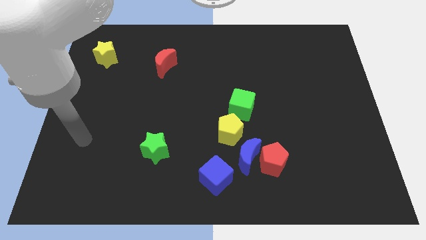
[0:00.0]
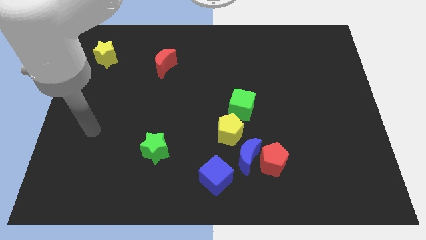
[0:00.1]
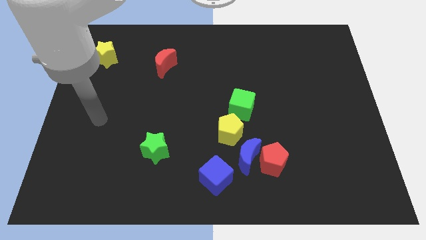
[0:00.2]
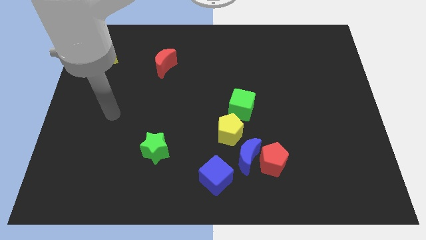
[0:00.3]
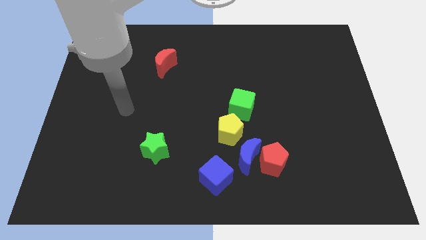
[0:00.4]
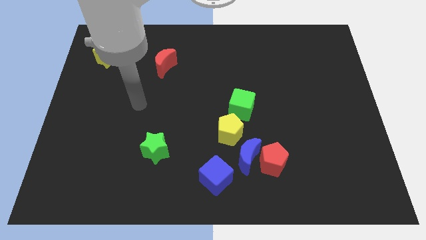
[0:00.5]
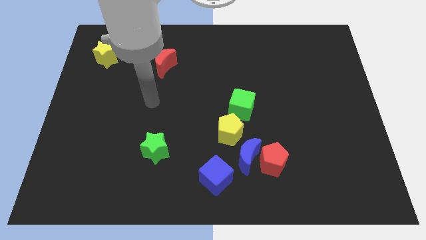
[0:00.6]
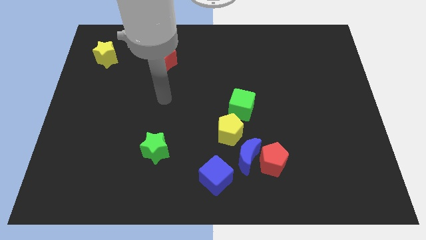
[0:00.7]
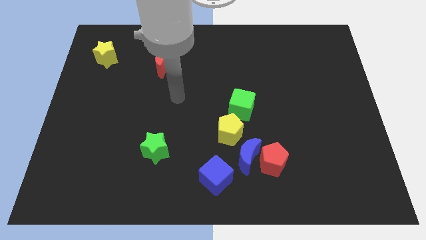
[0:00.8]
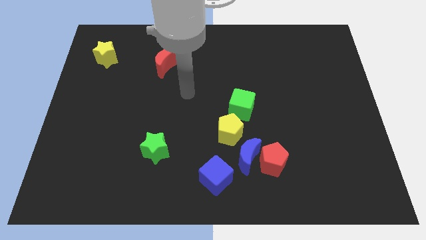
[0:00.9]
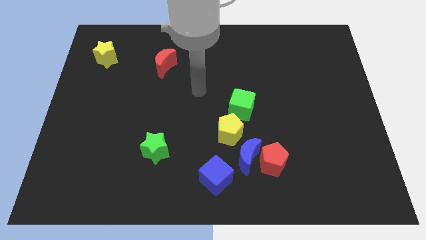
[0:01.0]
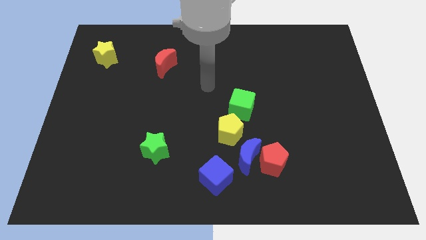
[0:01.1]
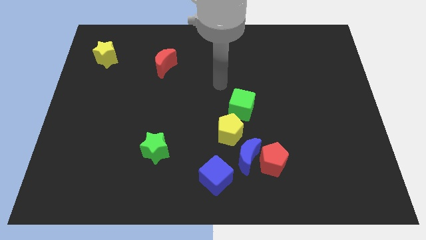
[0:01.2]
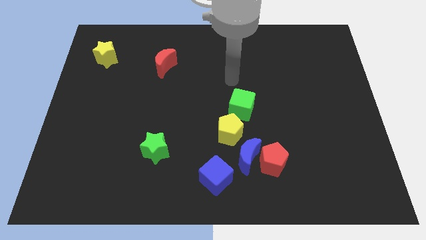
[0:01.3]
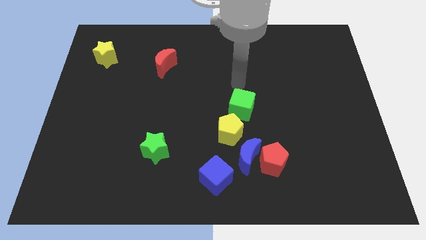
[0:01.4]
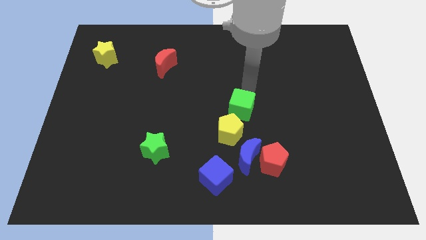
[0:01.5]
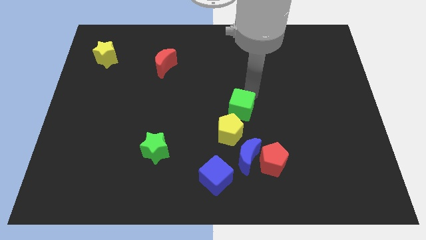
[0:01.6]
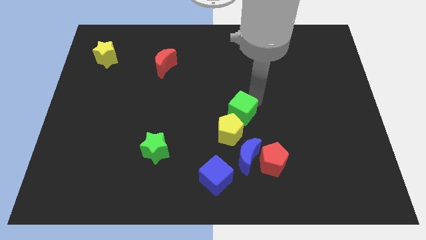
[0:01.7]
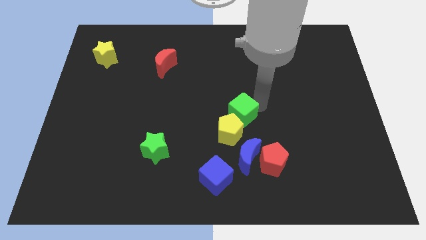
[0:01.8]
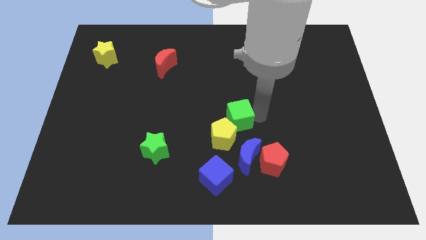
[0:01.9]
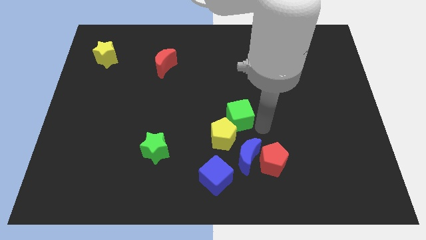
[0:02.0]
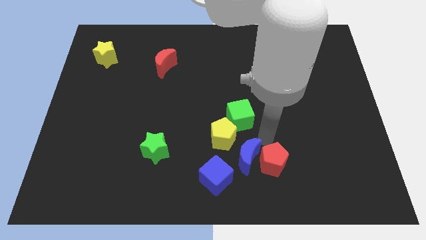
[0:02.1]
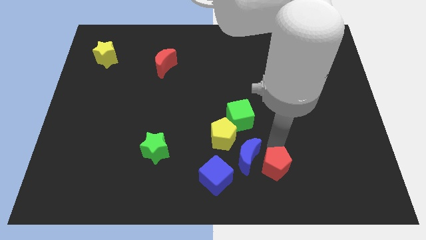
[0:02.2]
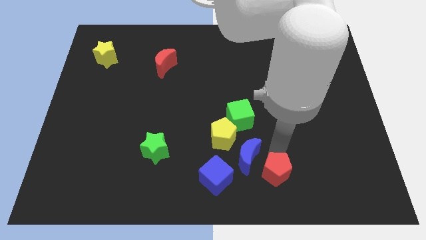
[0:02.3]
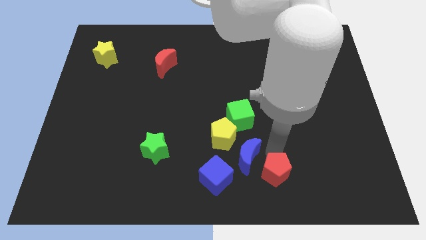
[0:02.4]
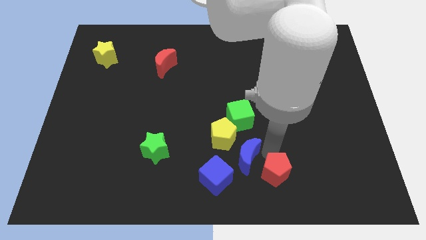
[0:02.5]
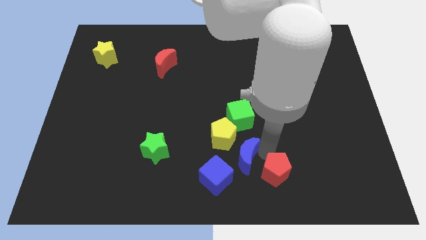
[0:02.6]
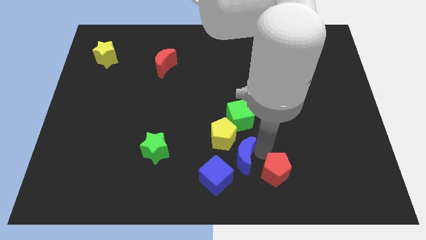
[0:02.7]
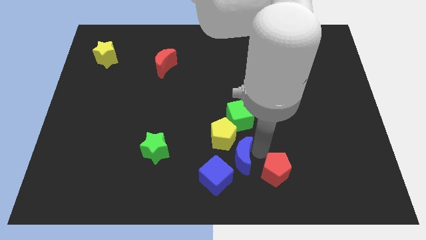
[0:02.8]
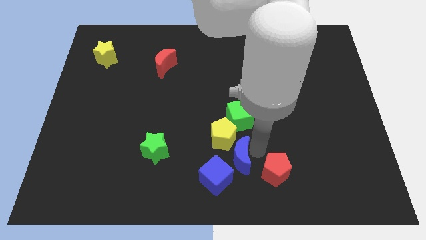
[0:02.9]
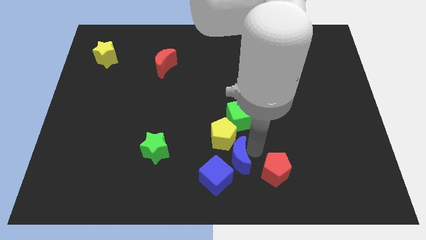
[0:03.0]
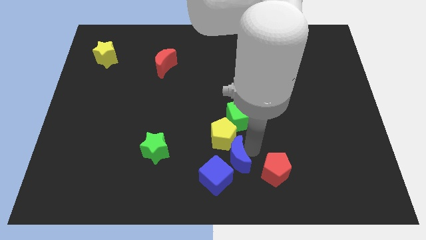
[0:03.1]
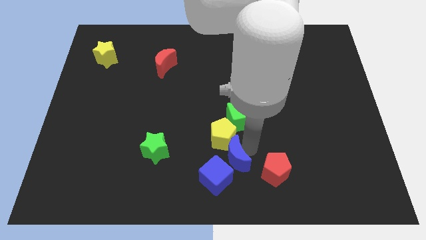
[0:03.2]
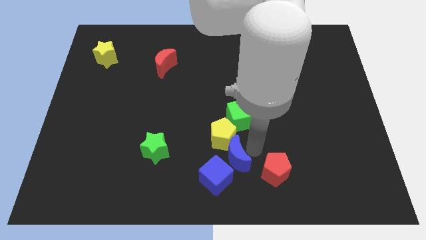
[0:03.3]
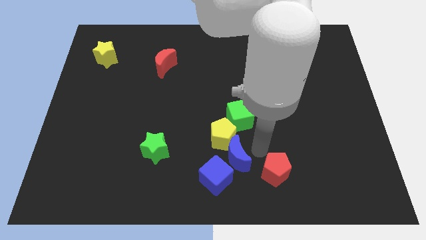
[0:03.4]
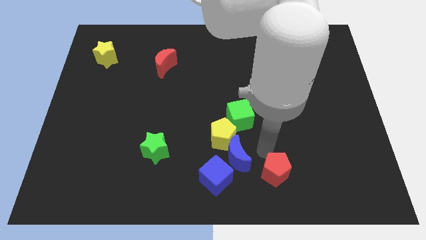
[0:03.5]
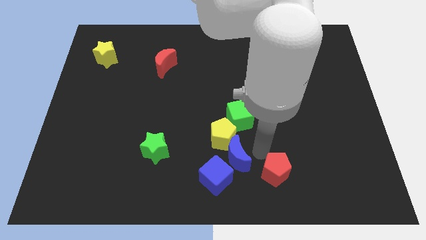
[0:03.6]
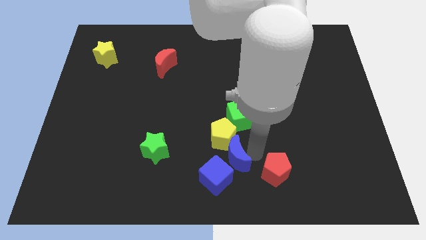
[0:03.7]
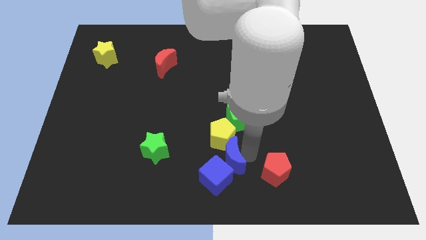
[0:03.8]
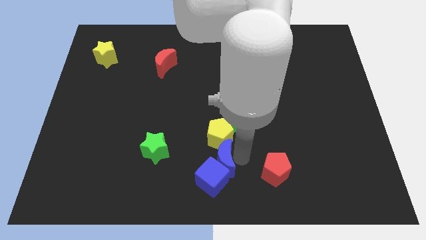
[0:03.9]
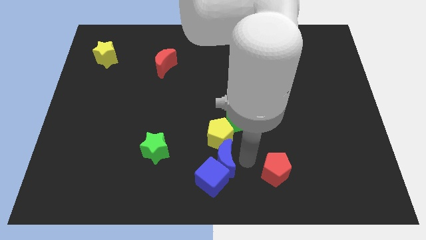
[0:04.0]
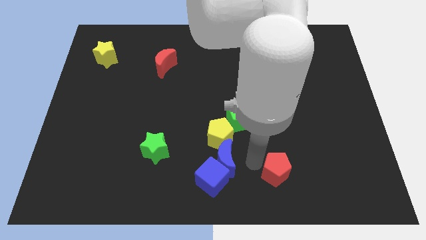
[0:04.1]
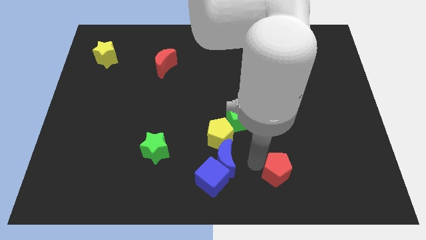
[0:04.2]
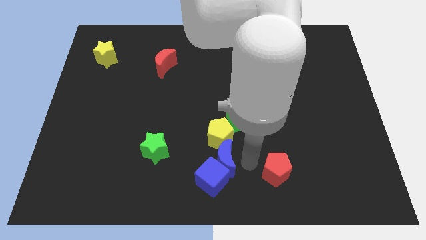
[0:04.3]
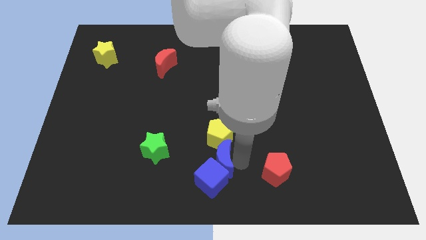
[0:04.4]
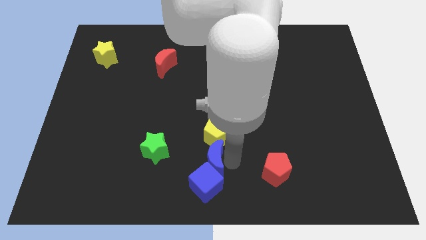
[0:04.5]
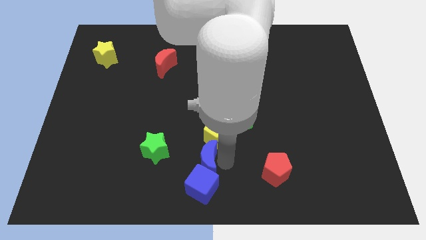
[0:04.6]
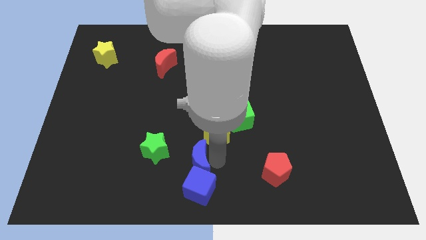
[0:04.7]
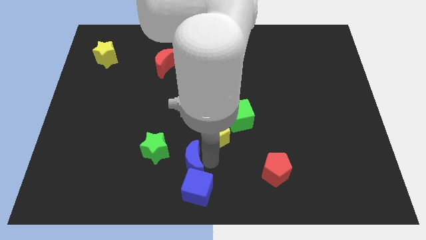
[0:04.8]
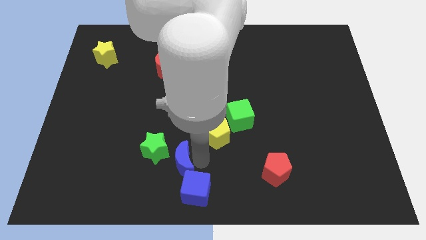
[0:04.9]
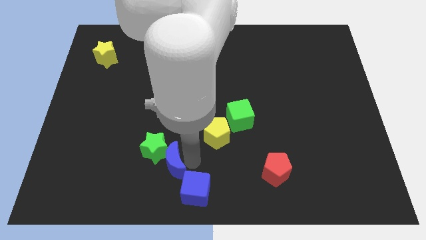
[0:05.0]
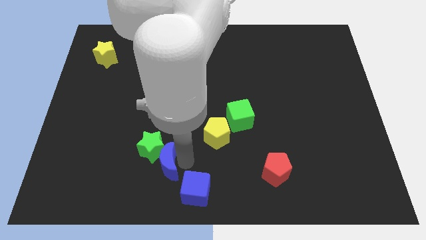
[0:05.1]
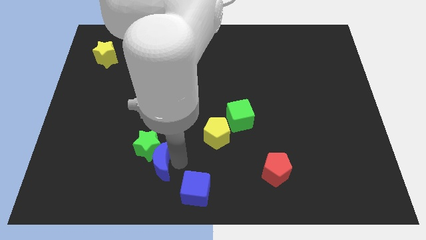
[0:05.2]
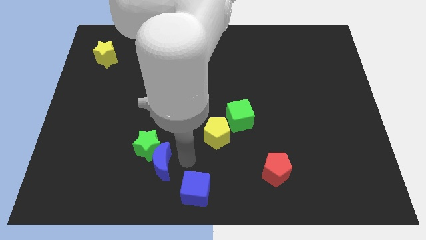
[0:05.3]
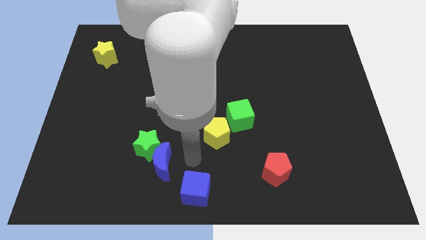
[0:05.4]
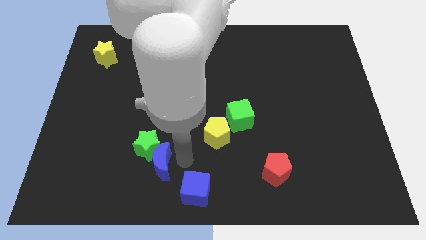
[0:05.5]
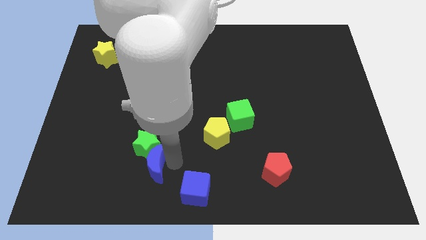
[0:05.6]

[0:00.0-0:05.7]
put the blue moon to the bottom left side of the green star

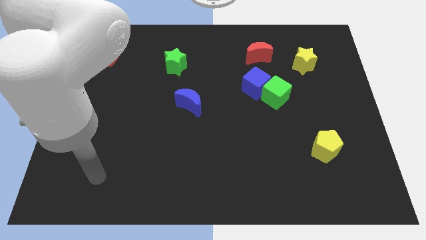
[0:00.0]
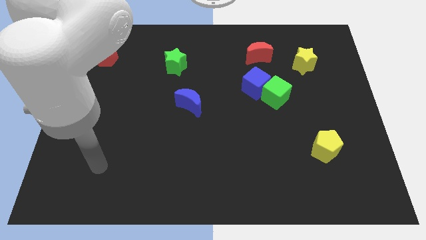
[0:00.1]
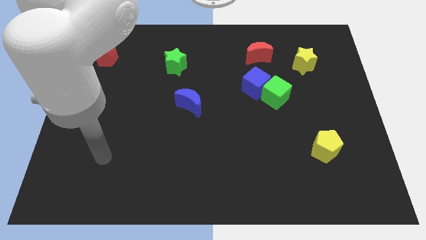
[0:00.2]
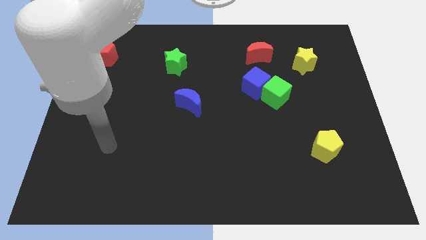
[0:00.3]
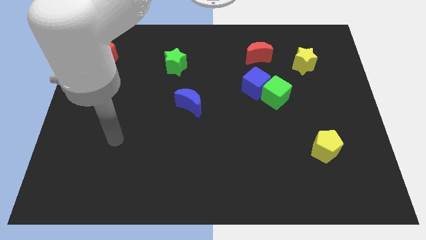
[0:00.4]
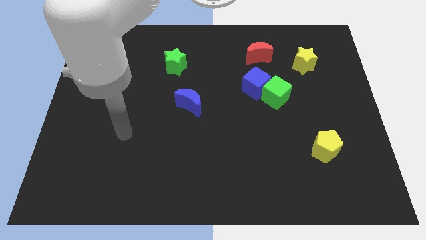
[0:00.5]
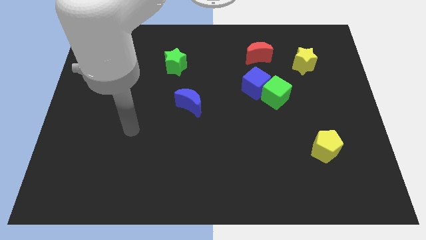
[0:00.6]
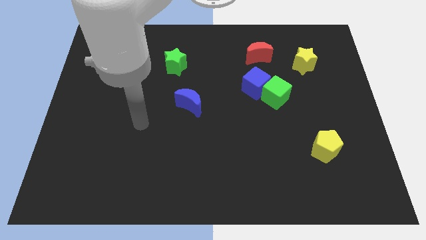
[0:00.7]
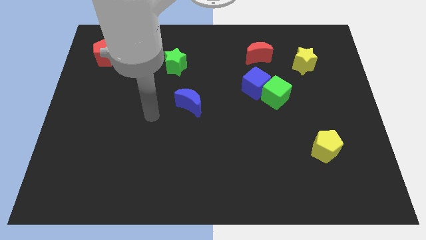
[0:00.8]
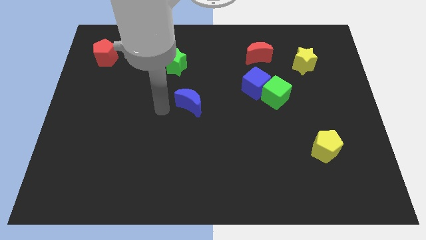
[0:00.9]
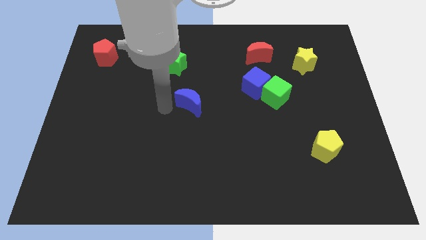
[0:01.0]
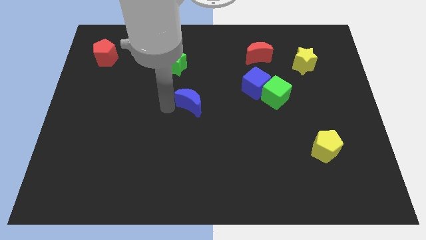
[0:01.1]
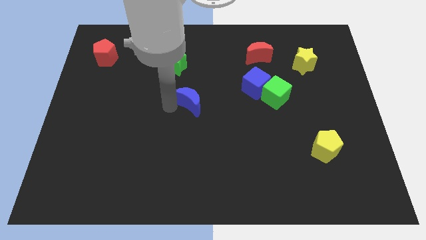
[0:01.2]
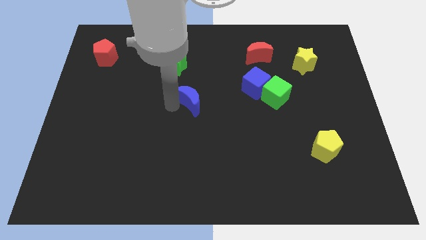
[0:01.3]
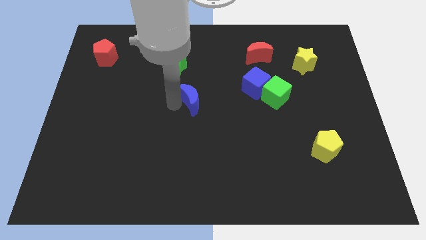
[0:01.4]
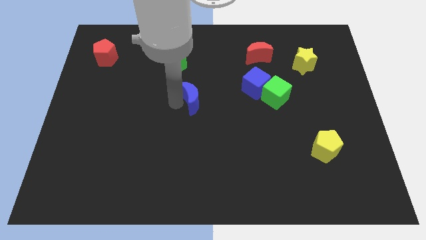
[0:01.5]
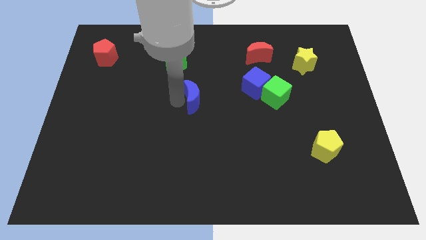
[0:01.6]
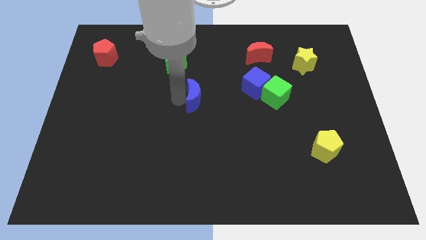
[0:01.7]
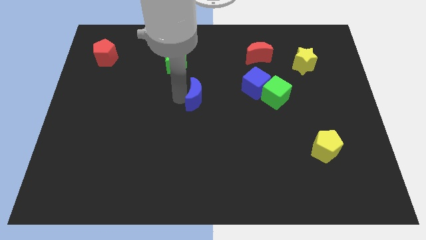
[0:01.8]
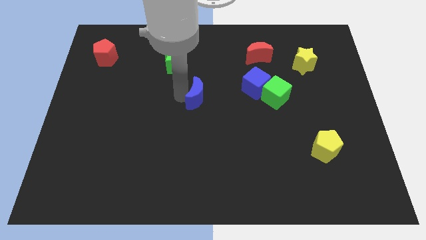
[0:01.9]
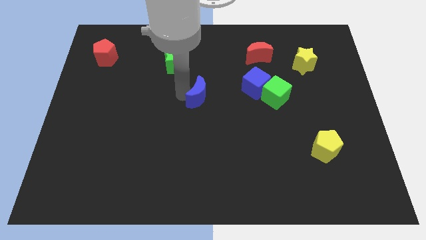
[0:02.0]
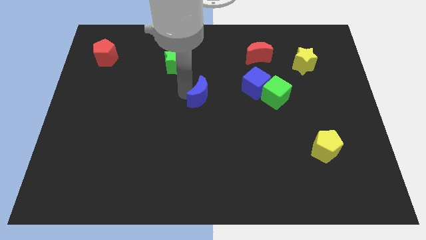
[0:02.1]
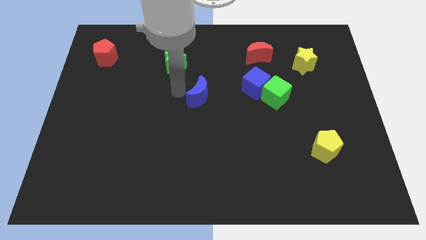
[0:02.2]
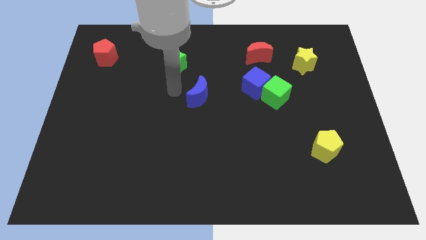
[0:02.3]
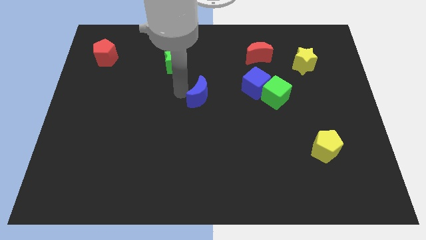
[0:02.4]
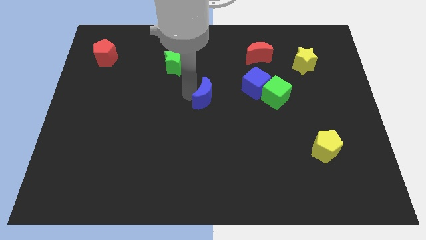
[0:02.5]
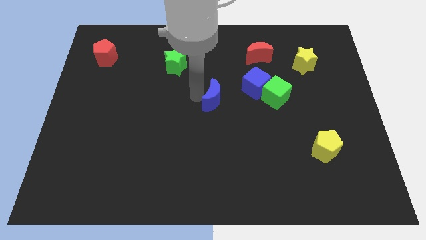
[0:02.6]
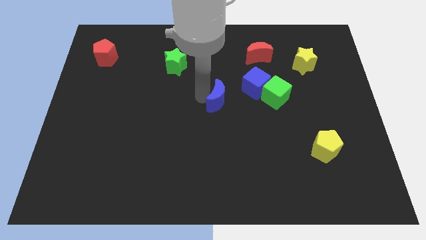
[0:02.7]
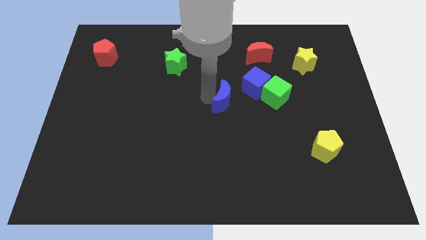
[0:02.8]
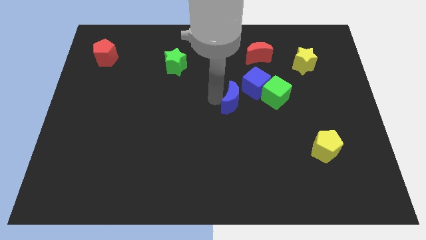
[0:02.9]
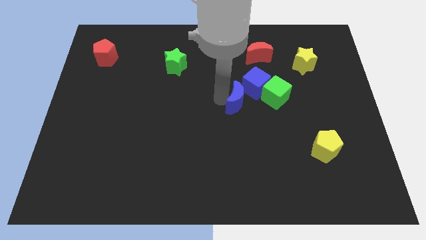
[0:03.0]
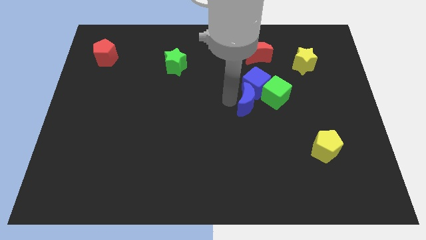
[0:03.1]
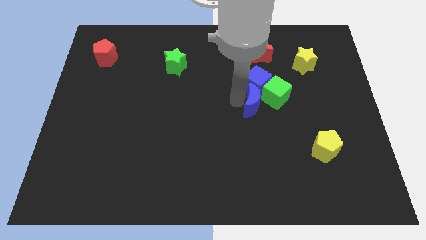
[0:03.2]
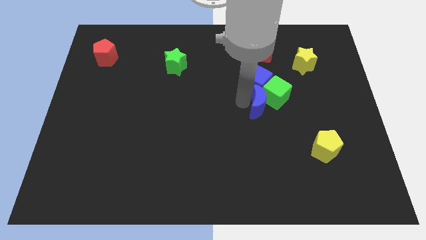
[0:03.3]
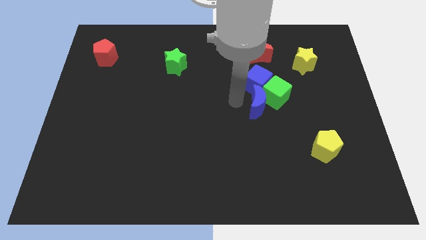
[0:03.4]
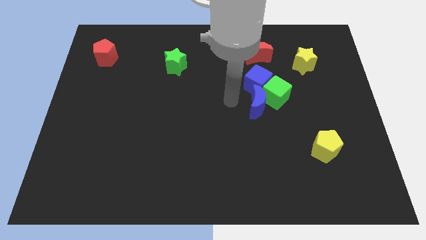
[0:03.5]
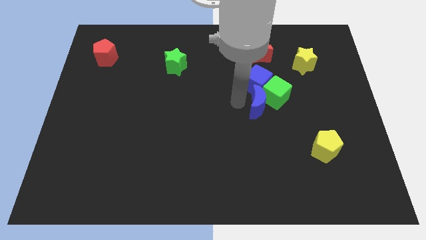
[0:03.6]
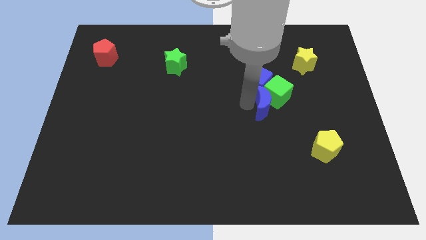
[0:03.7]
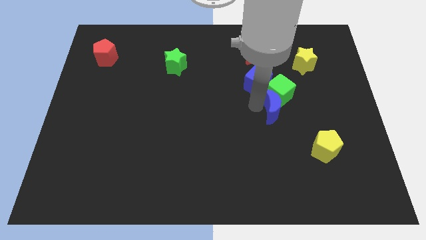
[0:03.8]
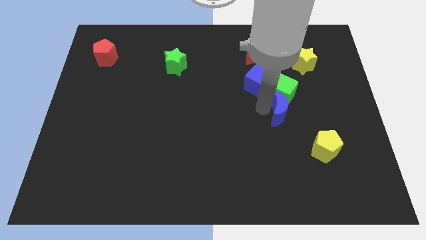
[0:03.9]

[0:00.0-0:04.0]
move the blue moon to the bottom right side of the green cube
